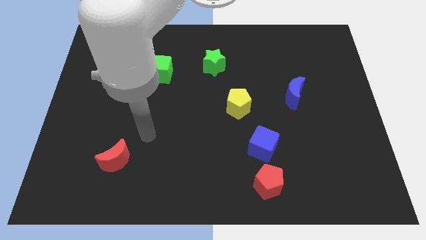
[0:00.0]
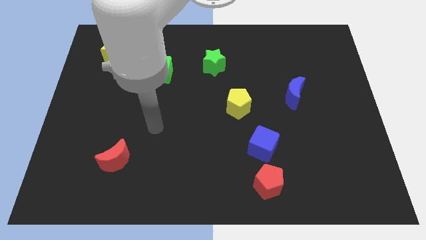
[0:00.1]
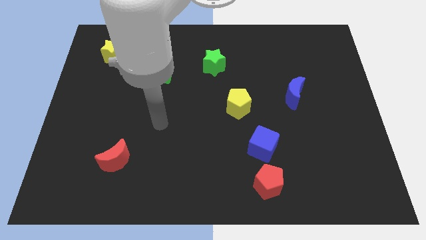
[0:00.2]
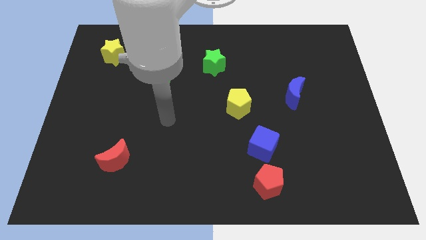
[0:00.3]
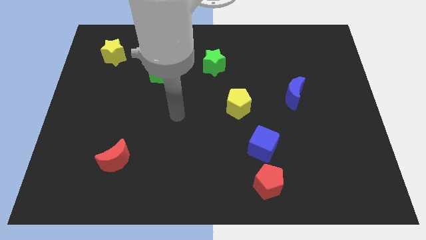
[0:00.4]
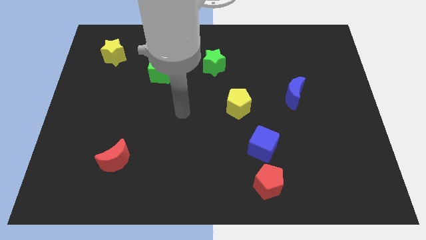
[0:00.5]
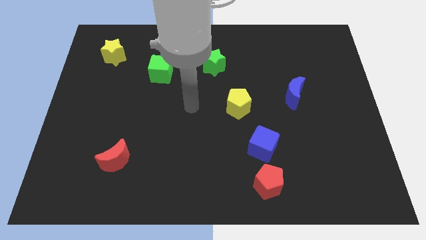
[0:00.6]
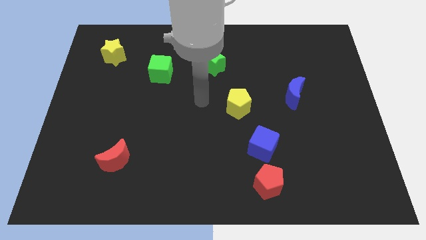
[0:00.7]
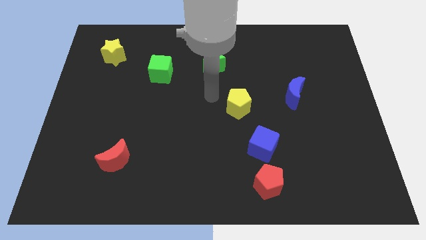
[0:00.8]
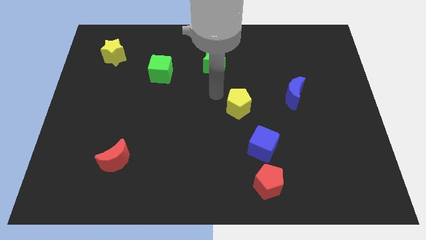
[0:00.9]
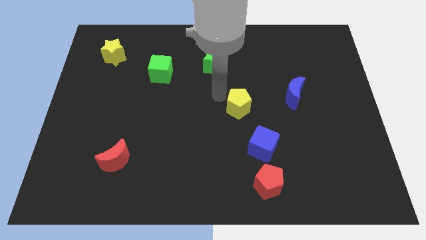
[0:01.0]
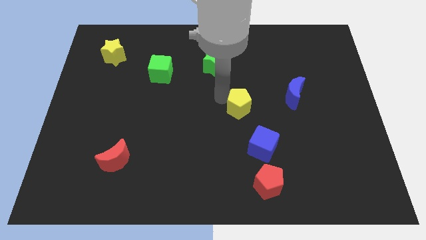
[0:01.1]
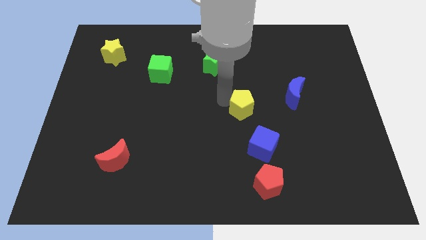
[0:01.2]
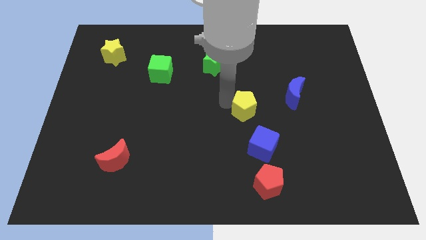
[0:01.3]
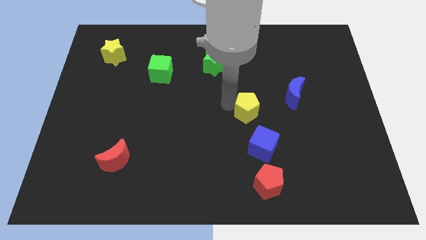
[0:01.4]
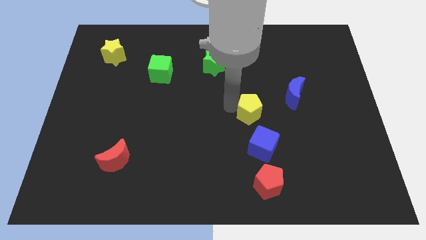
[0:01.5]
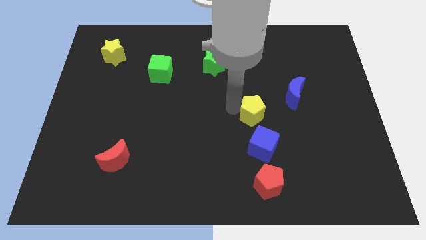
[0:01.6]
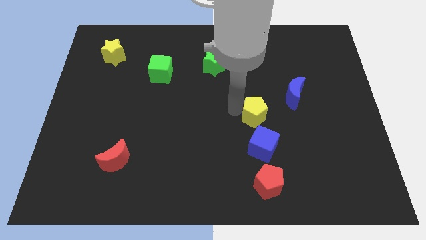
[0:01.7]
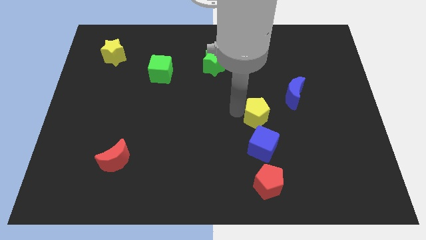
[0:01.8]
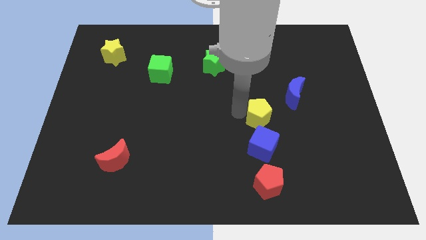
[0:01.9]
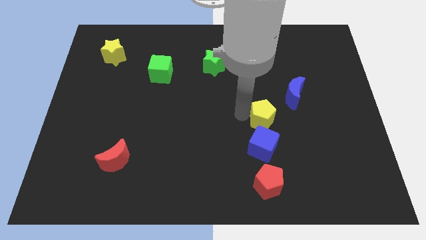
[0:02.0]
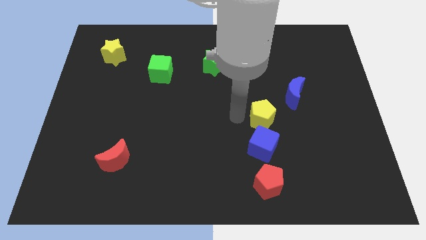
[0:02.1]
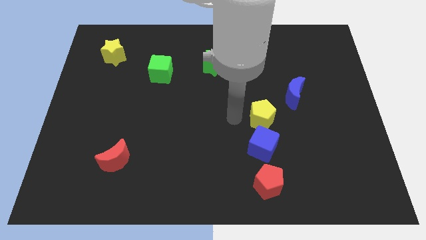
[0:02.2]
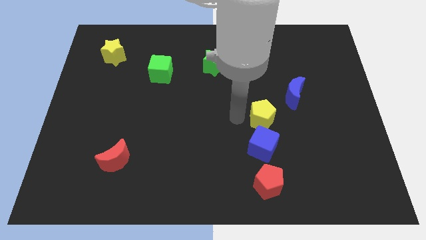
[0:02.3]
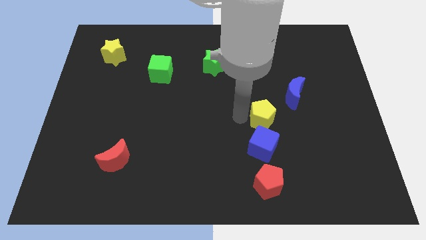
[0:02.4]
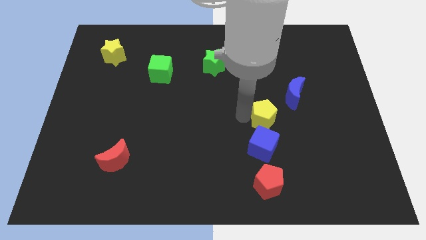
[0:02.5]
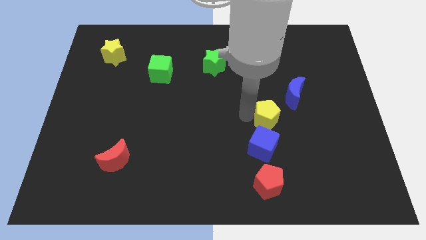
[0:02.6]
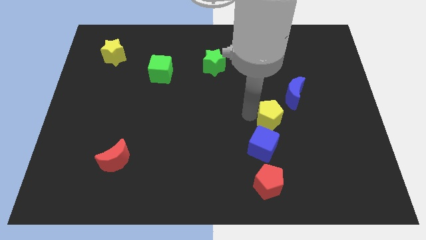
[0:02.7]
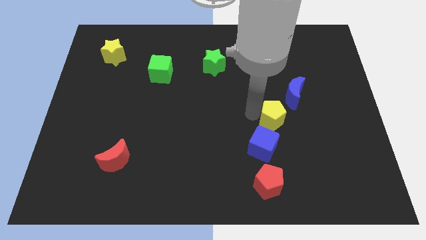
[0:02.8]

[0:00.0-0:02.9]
slightly push the yellow pentagon to the right

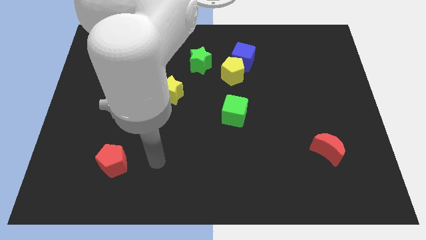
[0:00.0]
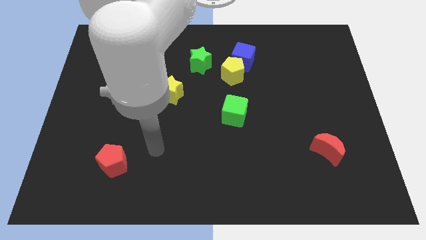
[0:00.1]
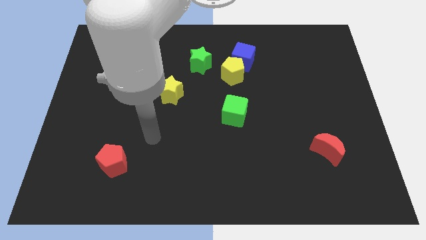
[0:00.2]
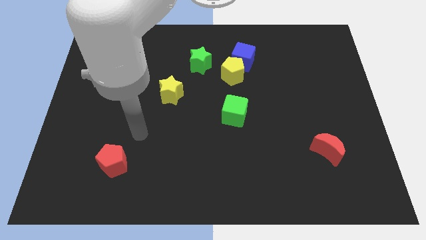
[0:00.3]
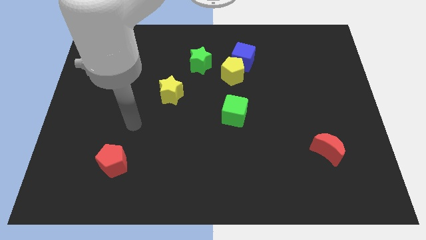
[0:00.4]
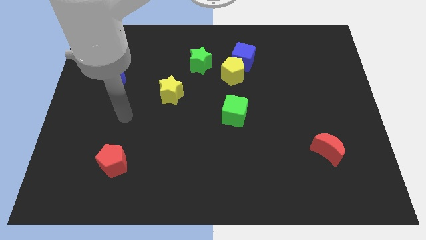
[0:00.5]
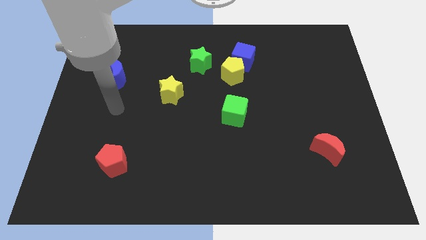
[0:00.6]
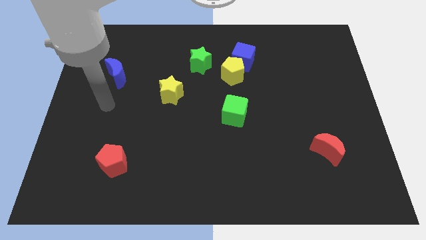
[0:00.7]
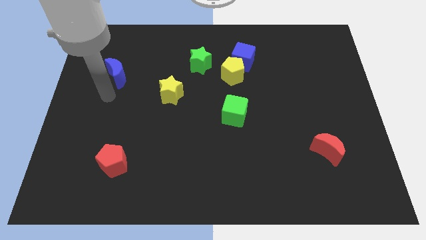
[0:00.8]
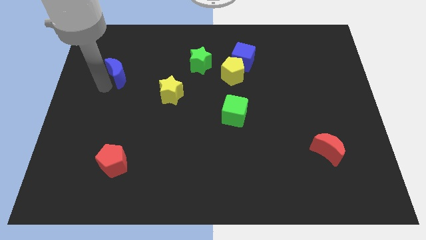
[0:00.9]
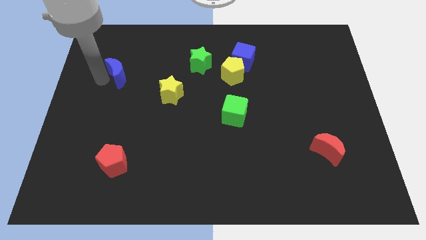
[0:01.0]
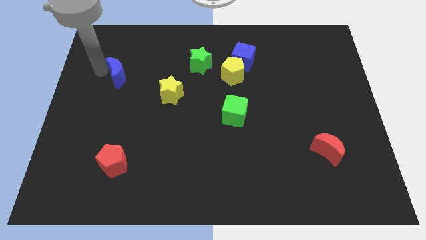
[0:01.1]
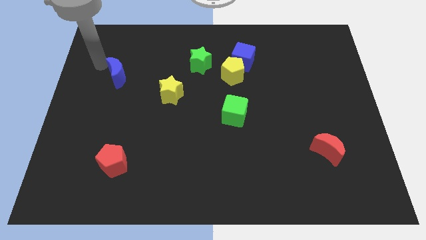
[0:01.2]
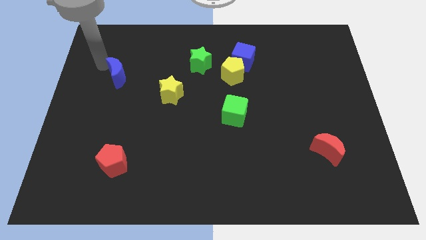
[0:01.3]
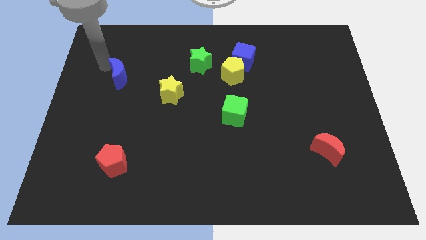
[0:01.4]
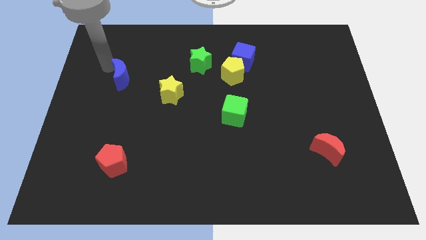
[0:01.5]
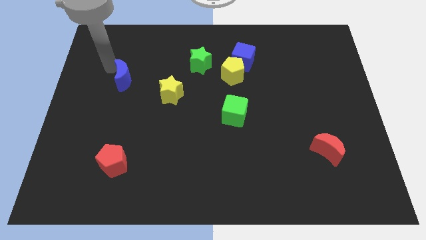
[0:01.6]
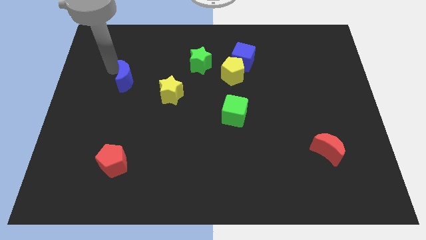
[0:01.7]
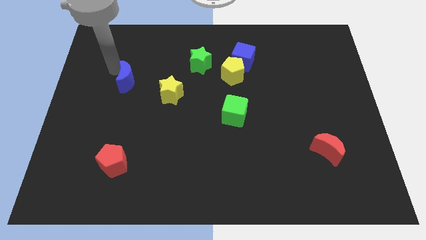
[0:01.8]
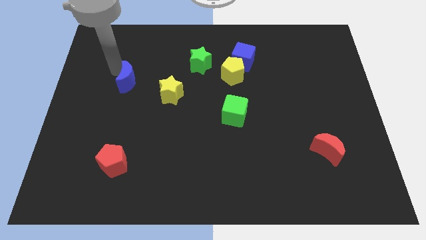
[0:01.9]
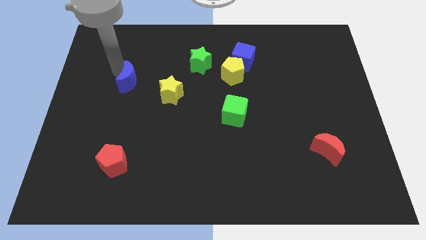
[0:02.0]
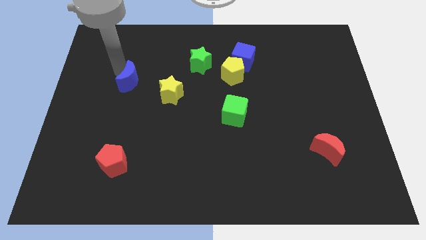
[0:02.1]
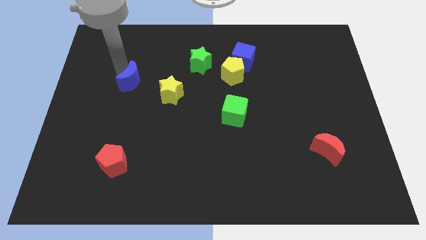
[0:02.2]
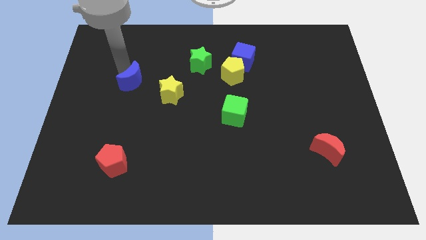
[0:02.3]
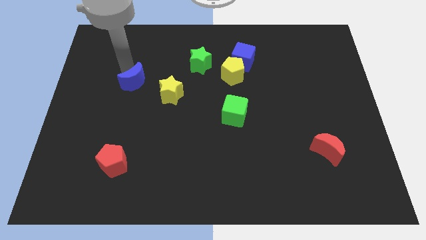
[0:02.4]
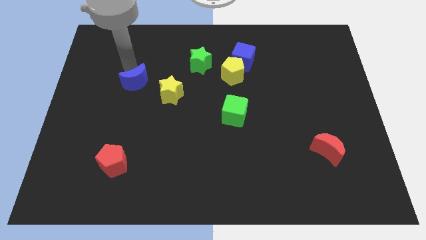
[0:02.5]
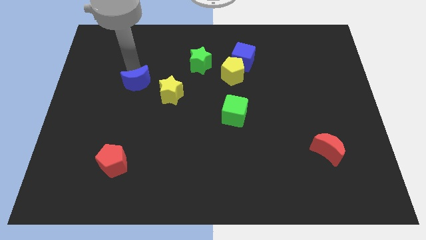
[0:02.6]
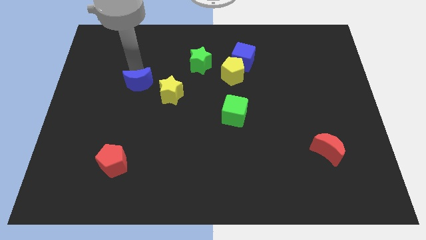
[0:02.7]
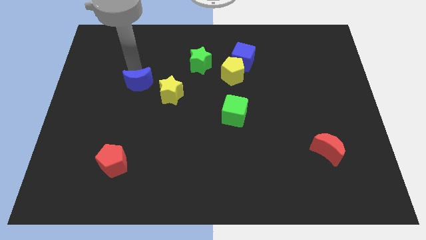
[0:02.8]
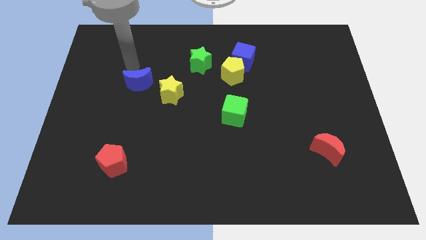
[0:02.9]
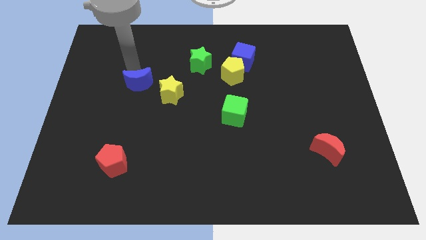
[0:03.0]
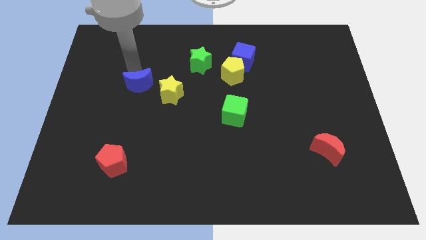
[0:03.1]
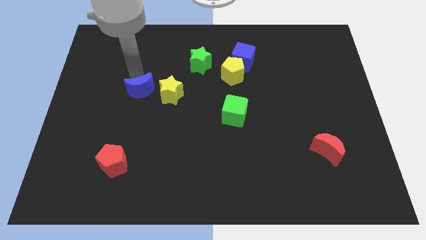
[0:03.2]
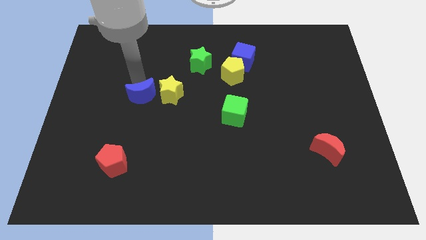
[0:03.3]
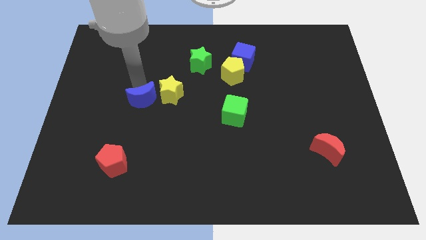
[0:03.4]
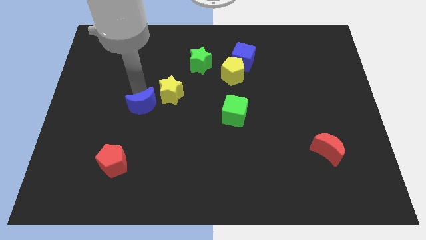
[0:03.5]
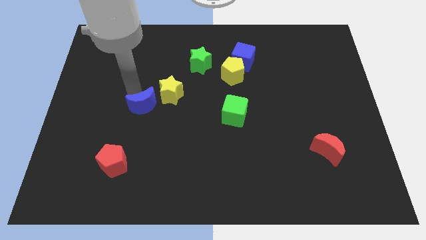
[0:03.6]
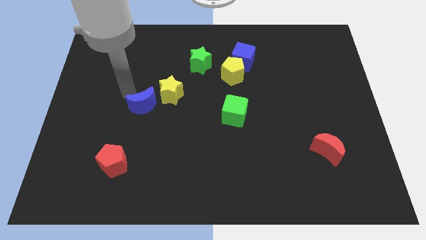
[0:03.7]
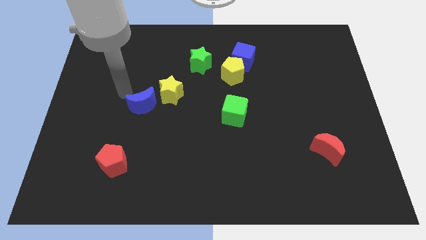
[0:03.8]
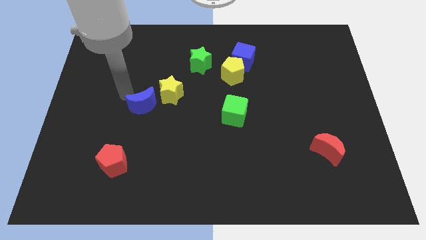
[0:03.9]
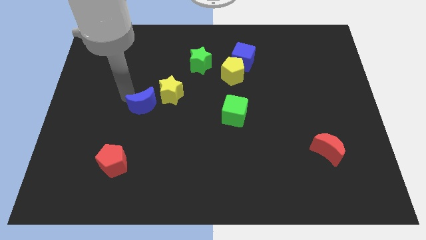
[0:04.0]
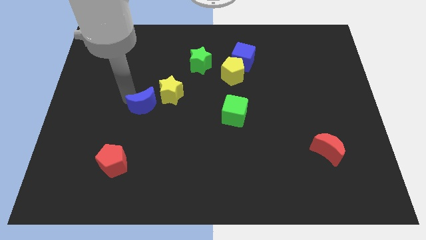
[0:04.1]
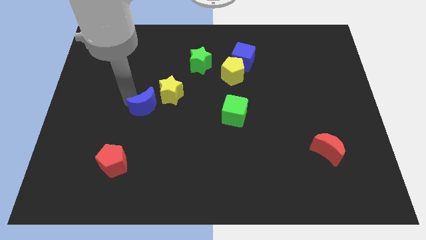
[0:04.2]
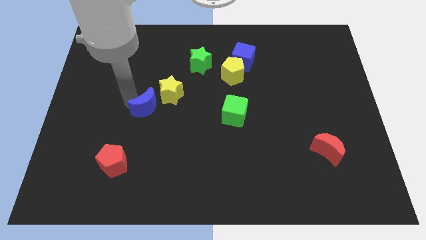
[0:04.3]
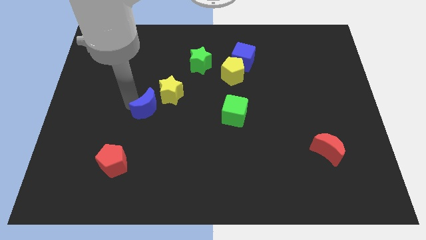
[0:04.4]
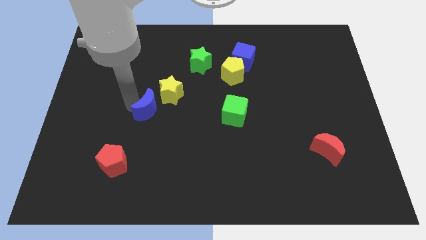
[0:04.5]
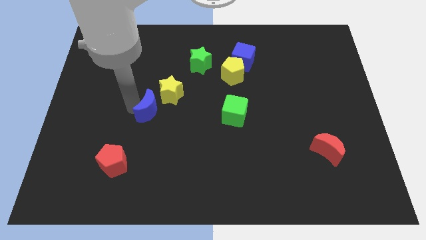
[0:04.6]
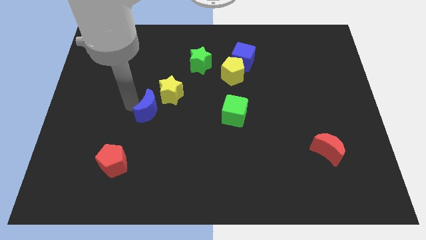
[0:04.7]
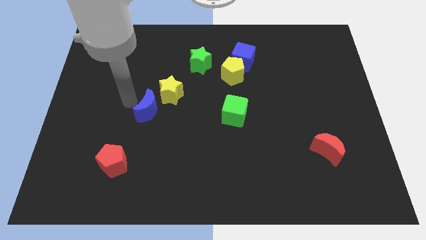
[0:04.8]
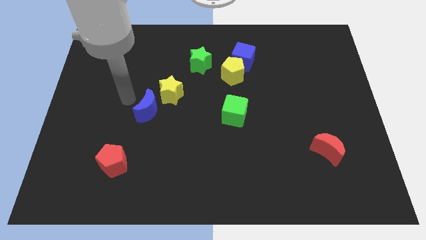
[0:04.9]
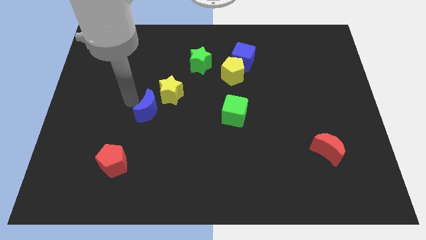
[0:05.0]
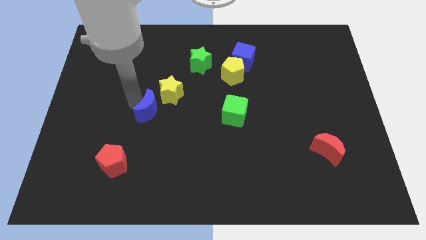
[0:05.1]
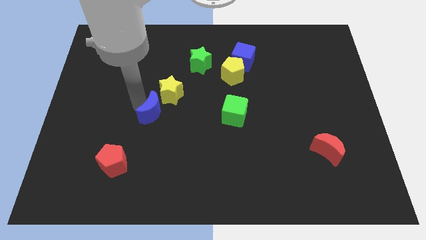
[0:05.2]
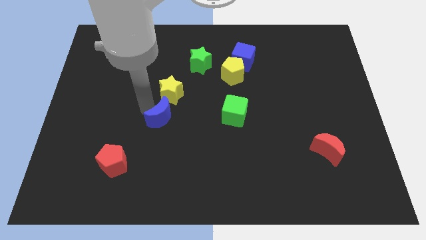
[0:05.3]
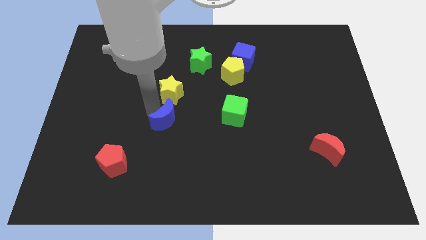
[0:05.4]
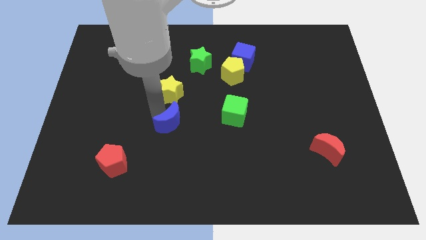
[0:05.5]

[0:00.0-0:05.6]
move the blue moon down and to the right diagonally
